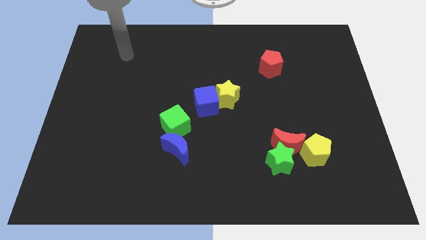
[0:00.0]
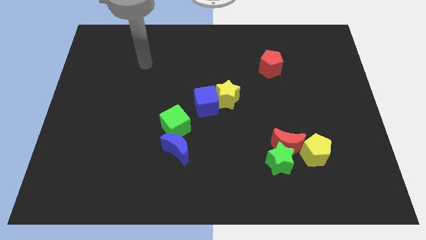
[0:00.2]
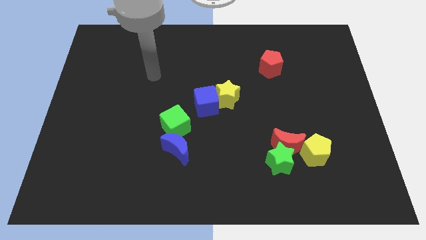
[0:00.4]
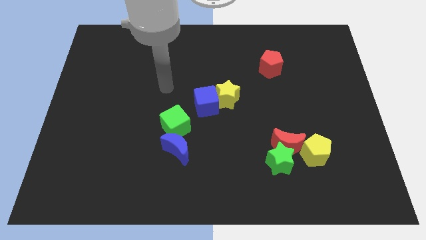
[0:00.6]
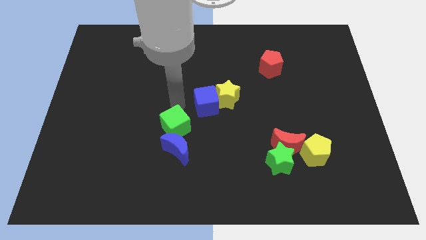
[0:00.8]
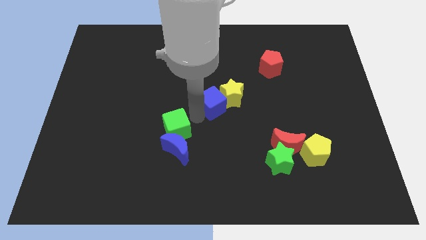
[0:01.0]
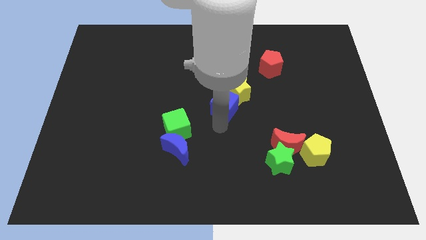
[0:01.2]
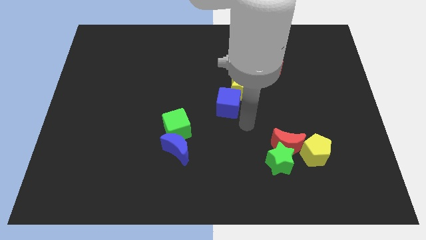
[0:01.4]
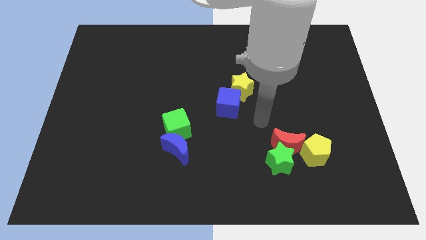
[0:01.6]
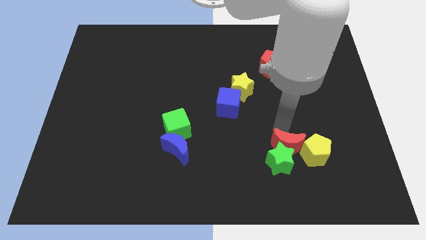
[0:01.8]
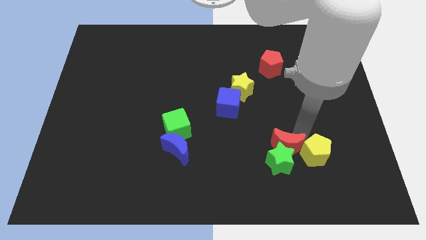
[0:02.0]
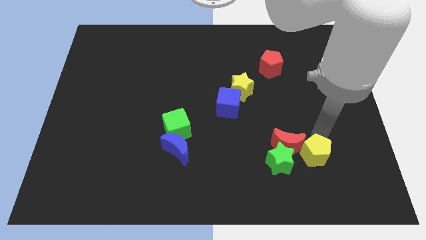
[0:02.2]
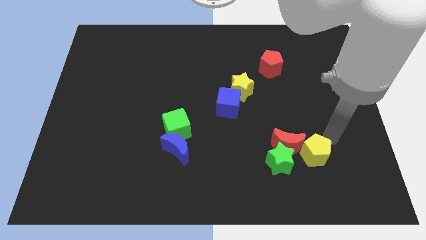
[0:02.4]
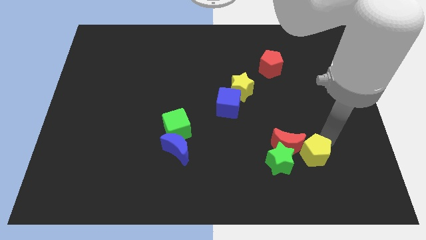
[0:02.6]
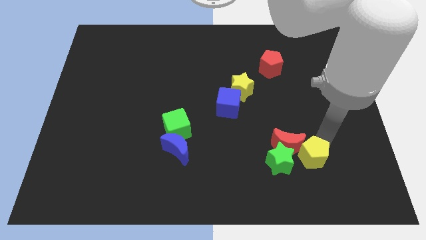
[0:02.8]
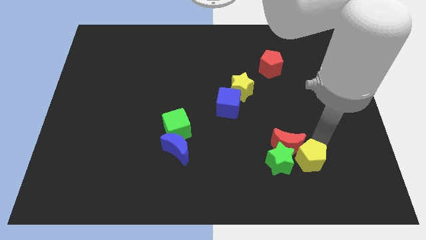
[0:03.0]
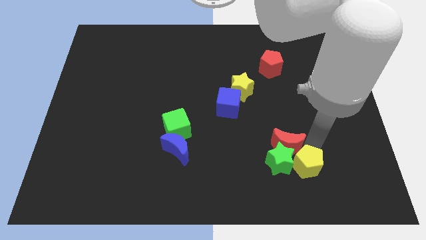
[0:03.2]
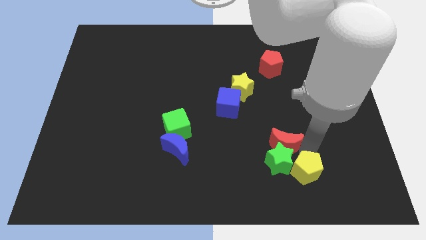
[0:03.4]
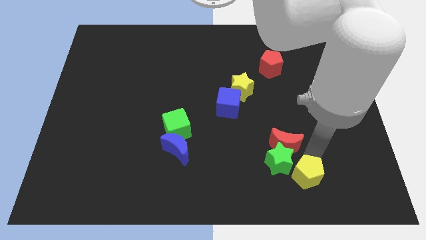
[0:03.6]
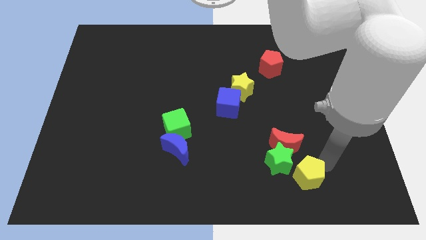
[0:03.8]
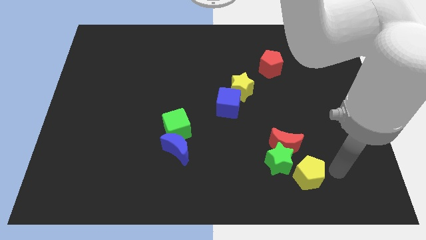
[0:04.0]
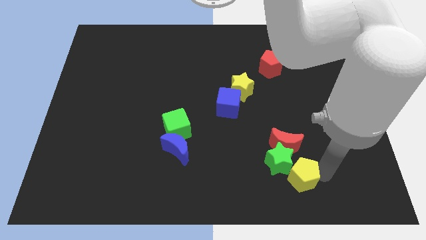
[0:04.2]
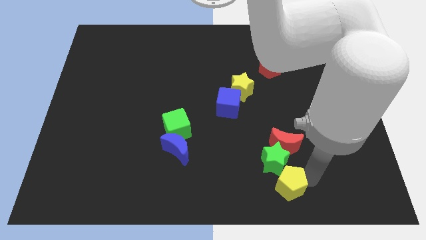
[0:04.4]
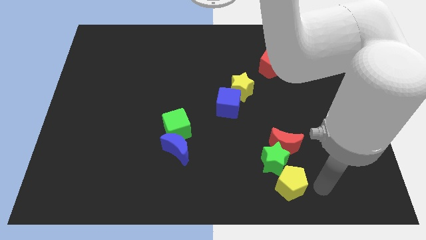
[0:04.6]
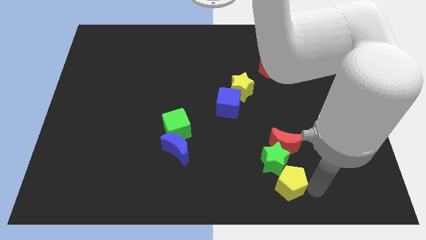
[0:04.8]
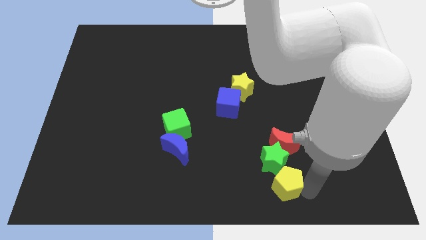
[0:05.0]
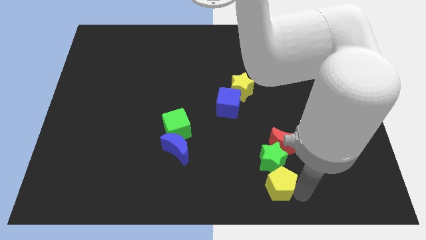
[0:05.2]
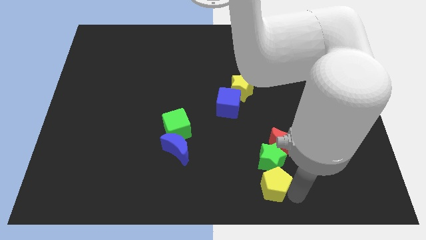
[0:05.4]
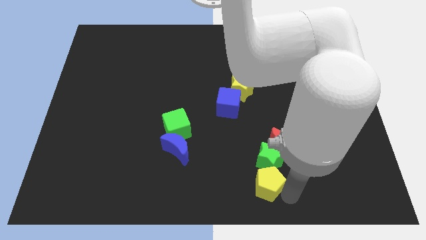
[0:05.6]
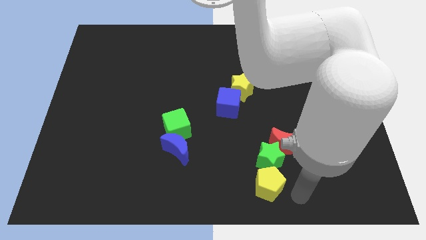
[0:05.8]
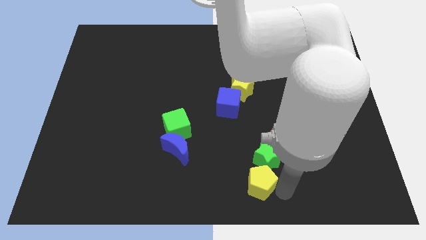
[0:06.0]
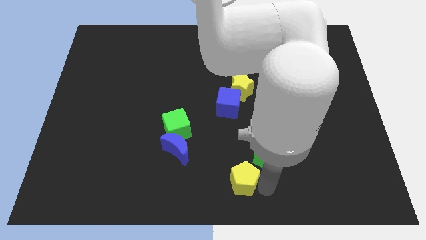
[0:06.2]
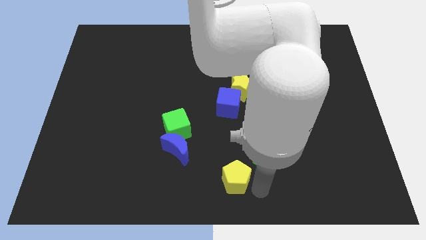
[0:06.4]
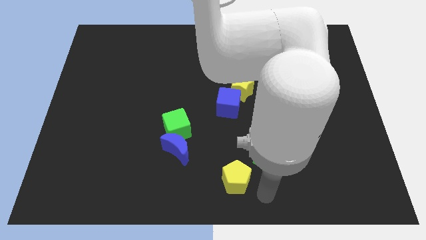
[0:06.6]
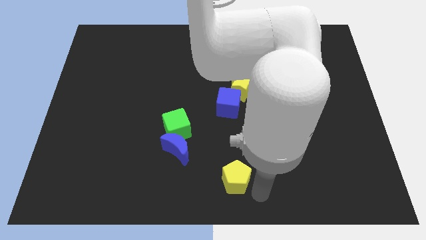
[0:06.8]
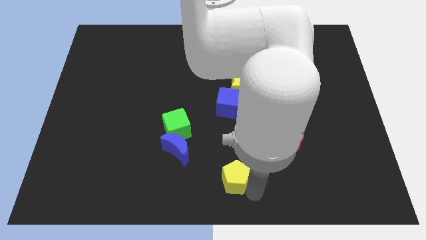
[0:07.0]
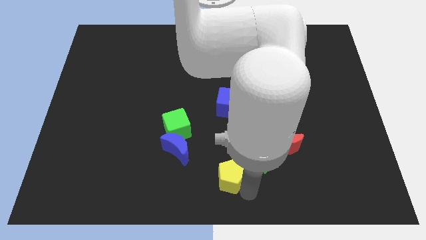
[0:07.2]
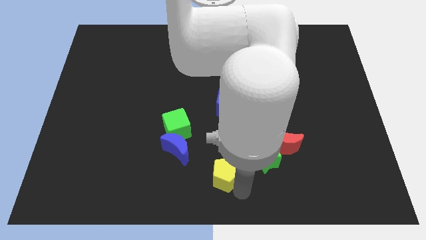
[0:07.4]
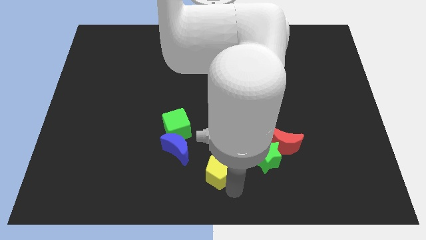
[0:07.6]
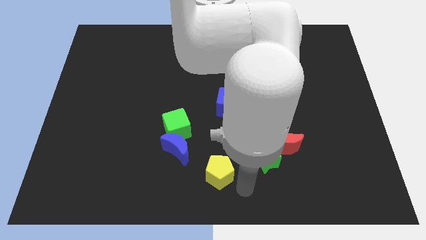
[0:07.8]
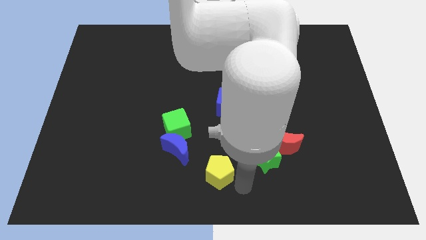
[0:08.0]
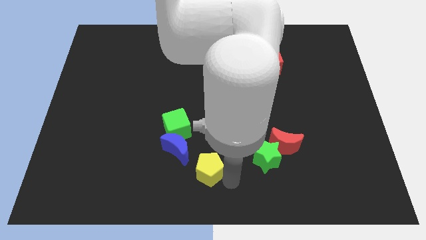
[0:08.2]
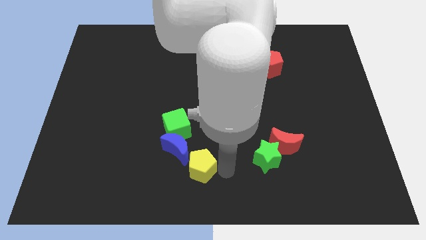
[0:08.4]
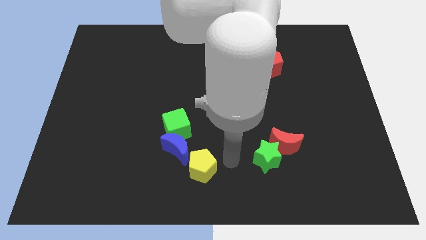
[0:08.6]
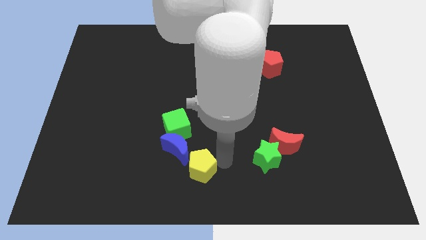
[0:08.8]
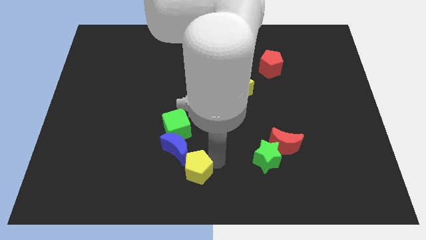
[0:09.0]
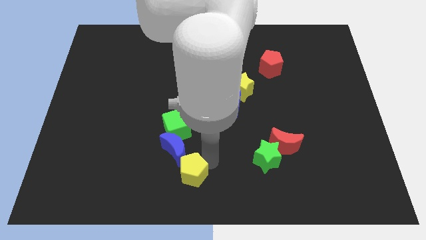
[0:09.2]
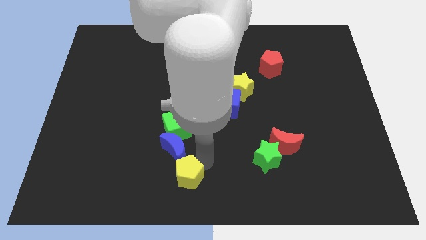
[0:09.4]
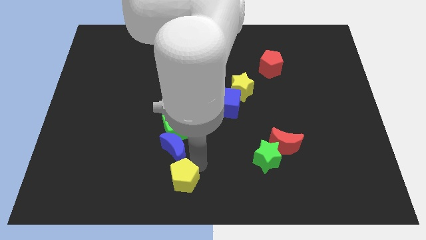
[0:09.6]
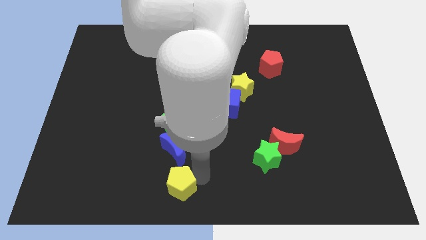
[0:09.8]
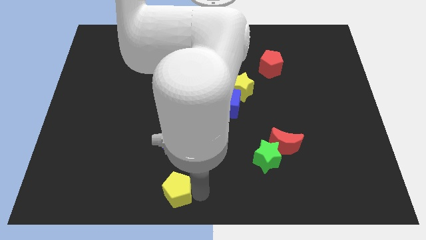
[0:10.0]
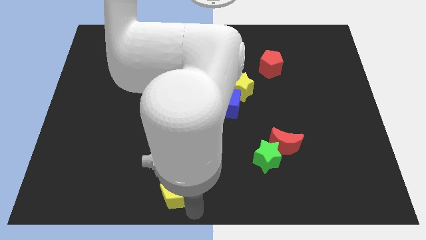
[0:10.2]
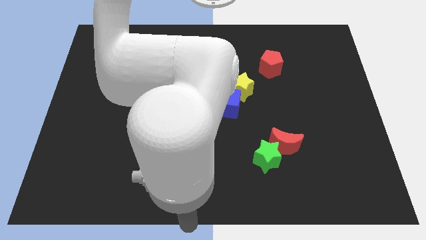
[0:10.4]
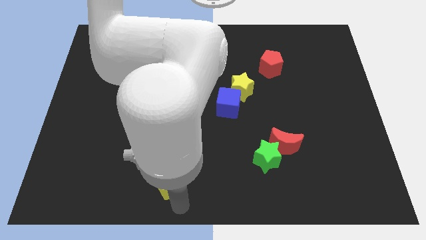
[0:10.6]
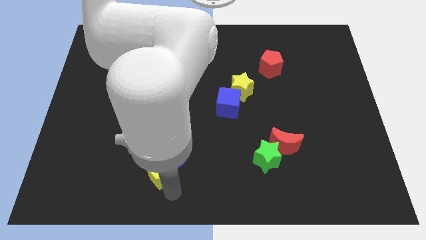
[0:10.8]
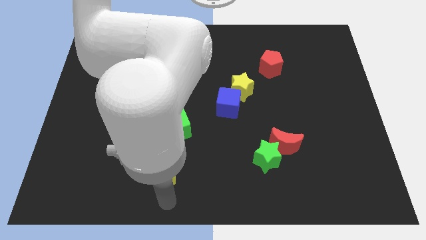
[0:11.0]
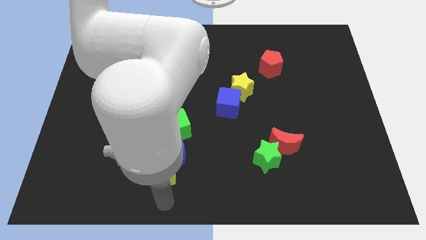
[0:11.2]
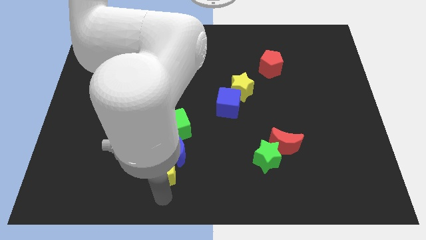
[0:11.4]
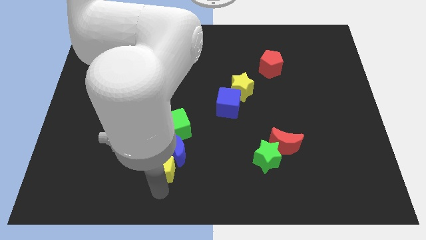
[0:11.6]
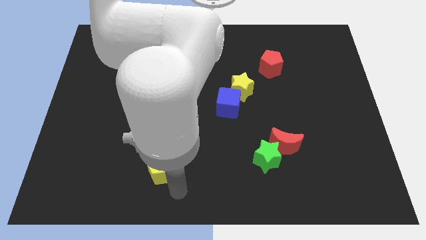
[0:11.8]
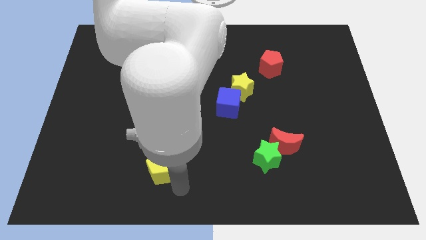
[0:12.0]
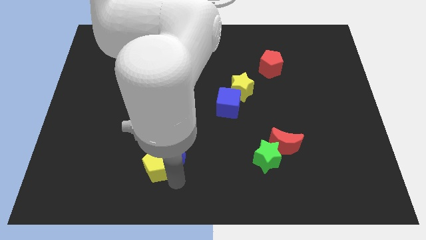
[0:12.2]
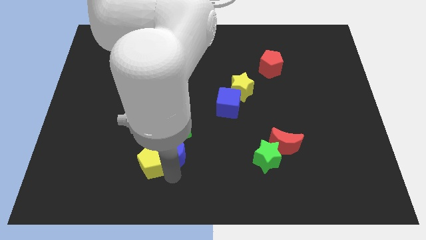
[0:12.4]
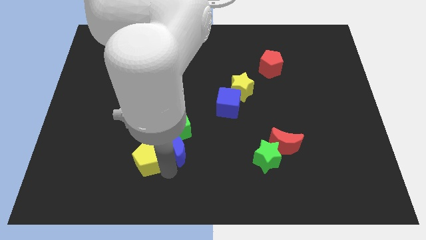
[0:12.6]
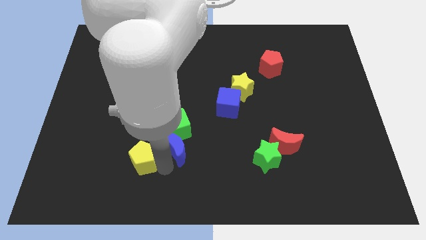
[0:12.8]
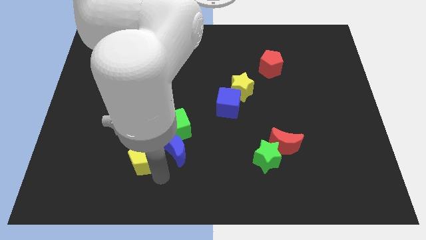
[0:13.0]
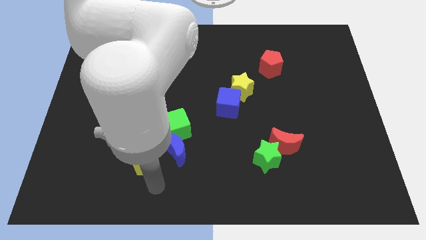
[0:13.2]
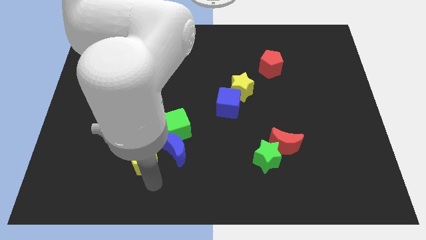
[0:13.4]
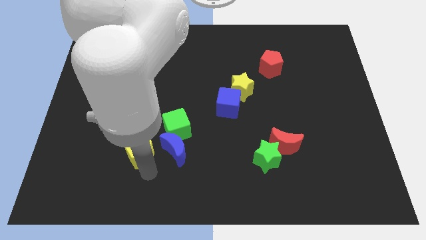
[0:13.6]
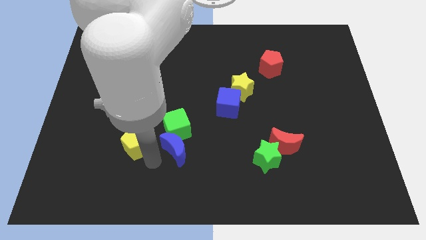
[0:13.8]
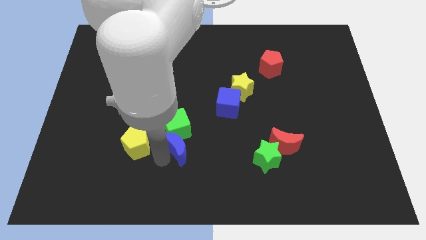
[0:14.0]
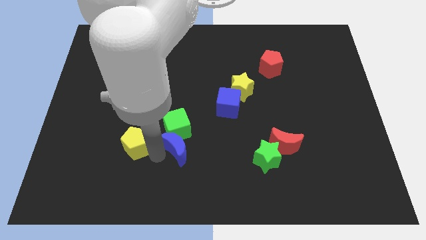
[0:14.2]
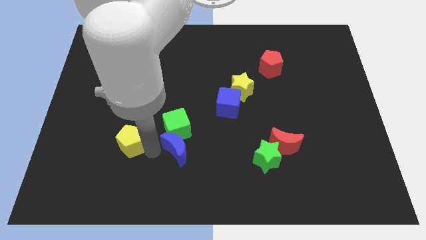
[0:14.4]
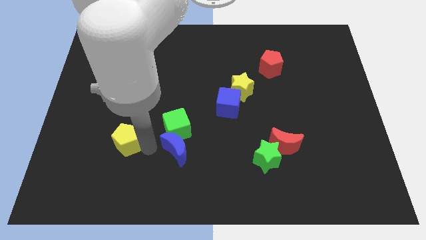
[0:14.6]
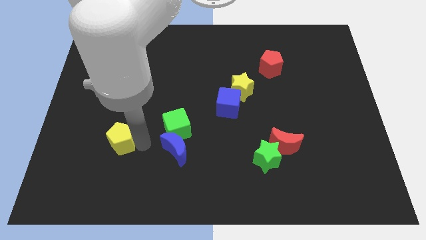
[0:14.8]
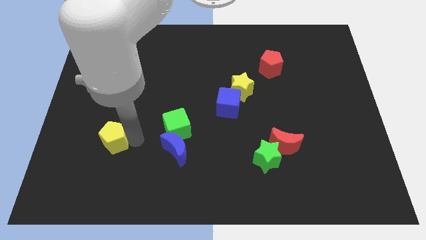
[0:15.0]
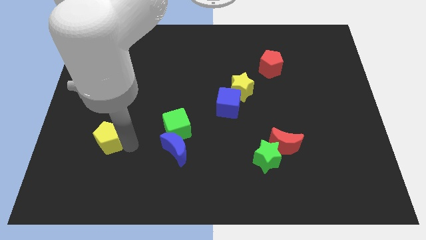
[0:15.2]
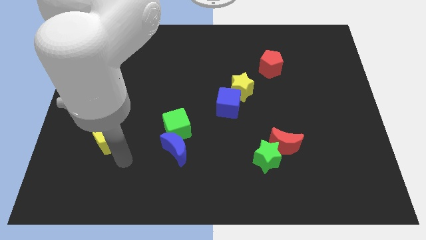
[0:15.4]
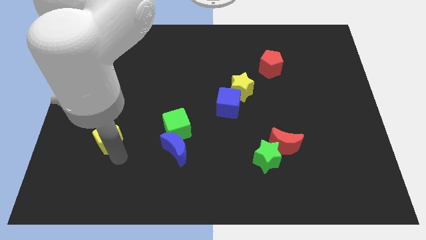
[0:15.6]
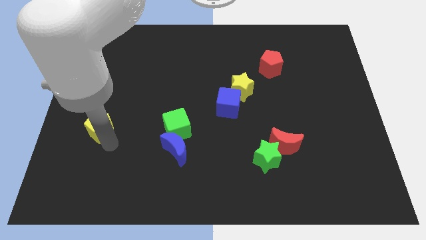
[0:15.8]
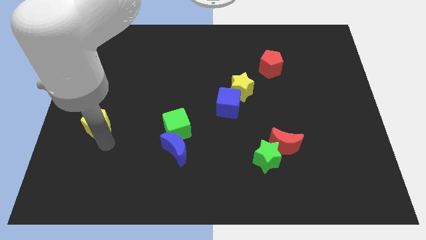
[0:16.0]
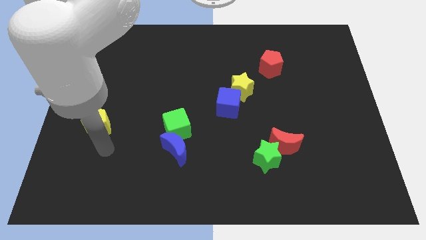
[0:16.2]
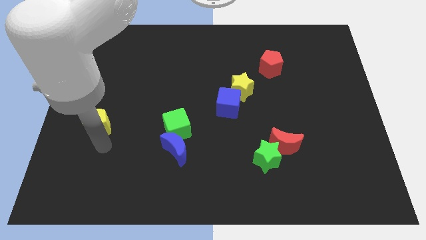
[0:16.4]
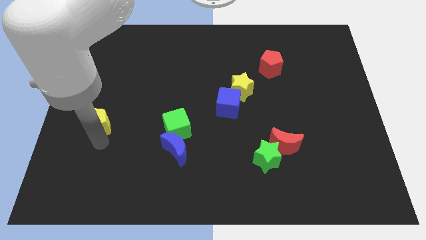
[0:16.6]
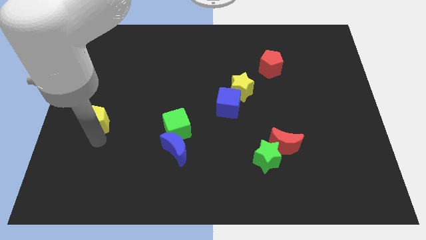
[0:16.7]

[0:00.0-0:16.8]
put the yellow pentagon to the left side
